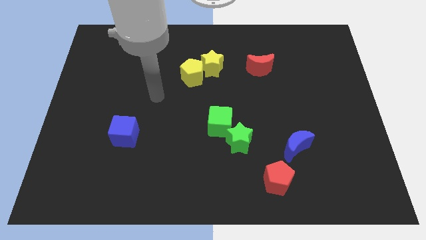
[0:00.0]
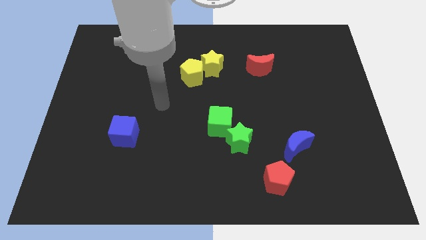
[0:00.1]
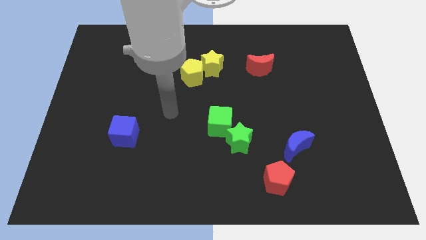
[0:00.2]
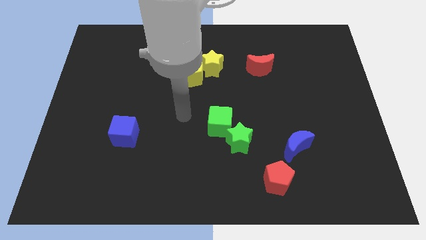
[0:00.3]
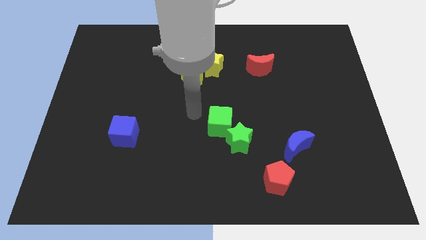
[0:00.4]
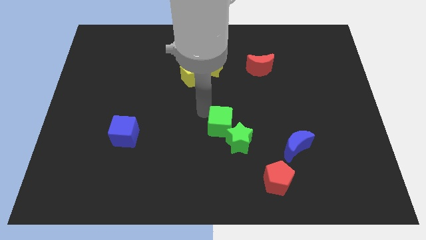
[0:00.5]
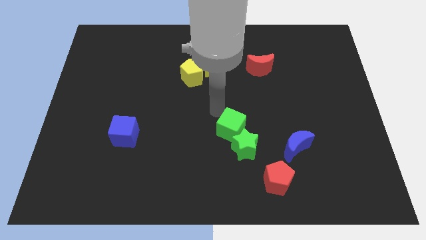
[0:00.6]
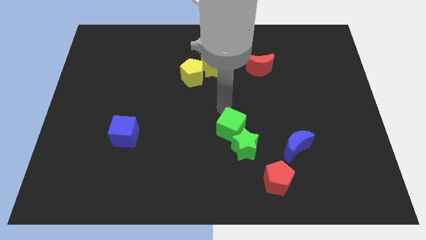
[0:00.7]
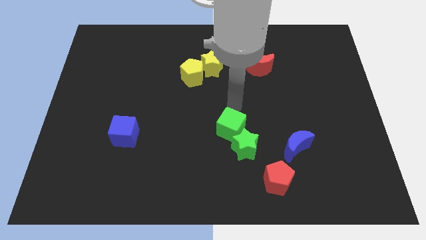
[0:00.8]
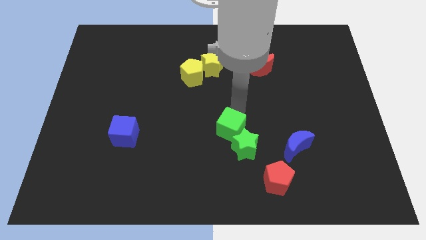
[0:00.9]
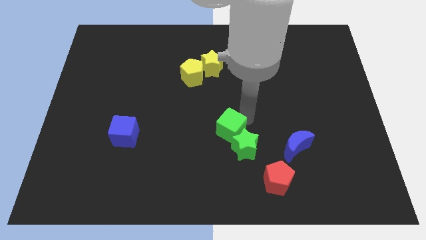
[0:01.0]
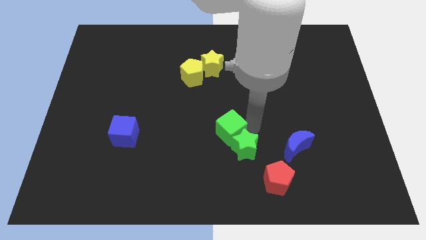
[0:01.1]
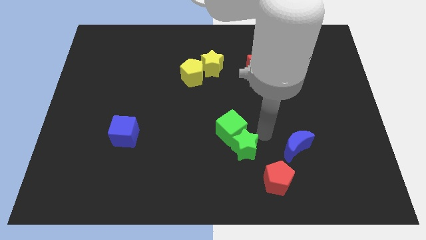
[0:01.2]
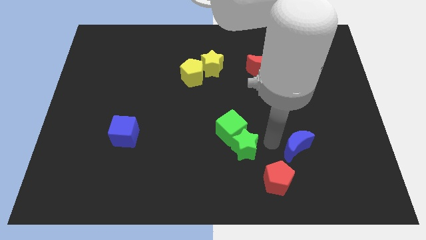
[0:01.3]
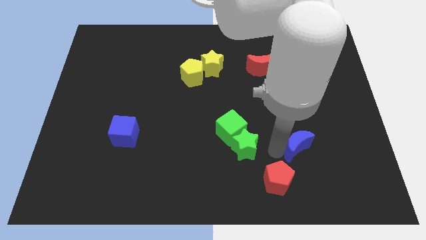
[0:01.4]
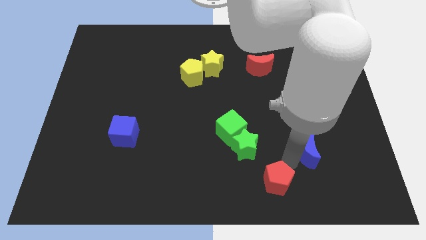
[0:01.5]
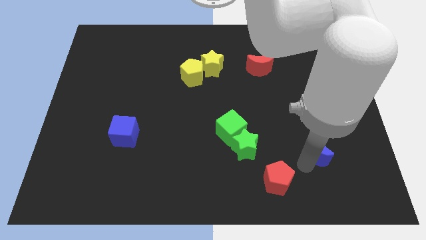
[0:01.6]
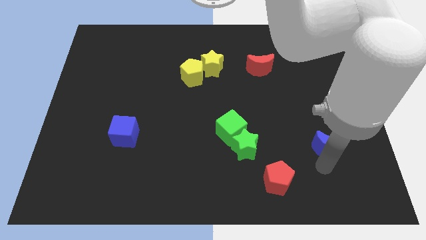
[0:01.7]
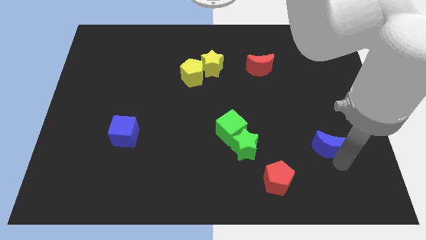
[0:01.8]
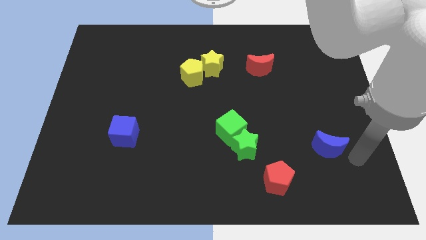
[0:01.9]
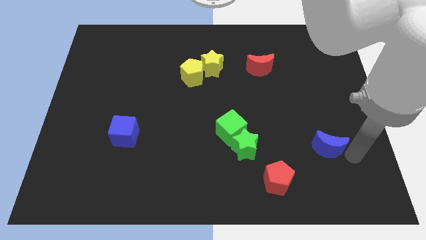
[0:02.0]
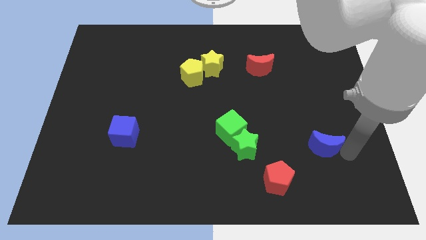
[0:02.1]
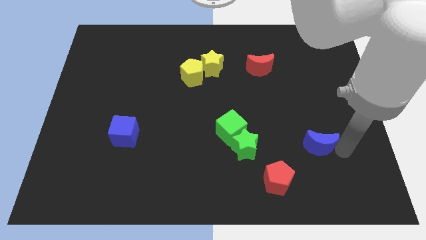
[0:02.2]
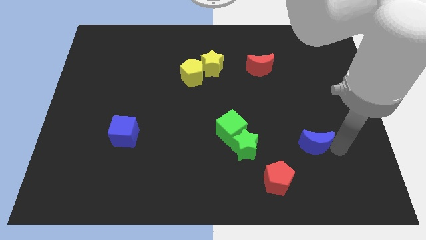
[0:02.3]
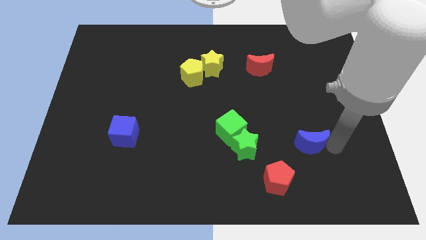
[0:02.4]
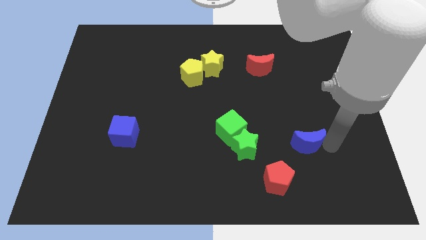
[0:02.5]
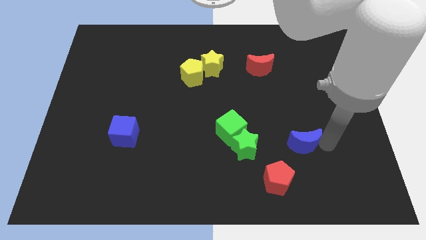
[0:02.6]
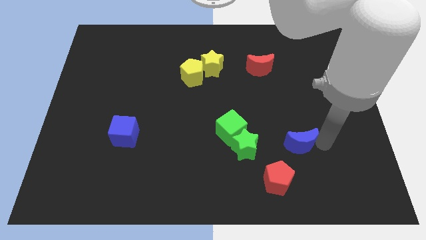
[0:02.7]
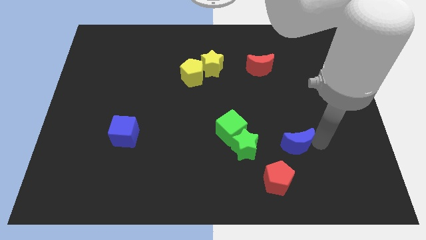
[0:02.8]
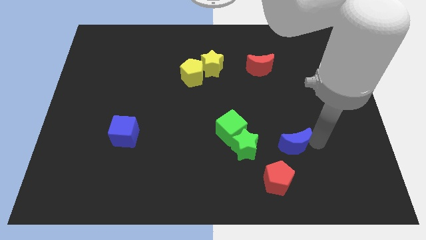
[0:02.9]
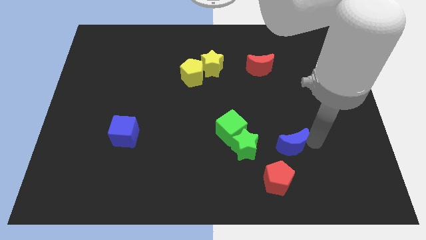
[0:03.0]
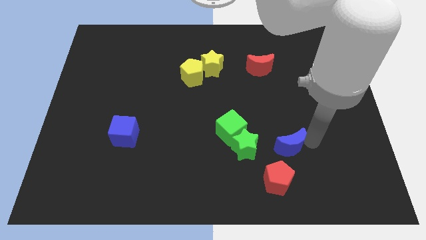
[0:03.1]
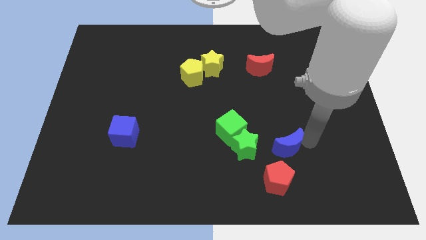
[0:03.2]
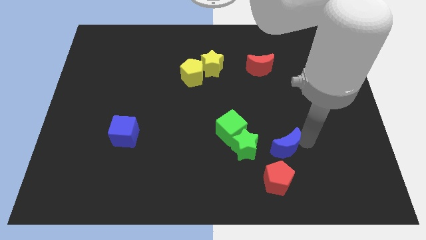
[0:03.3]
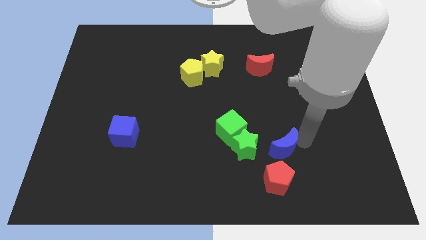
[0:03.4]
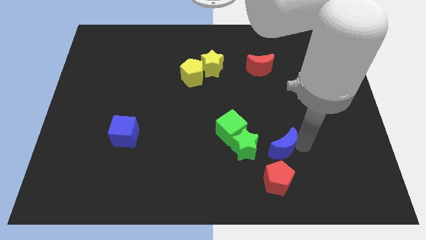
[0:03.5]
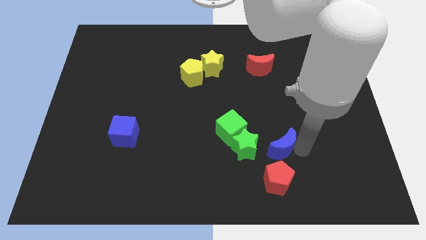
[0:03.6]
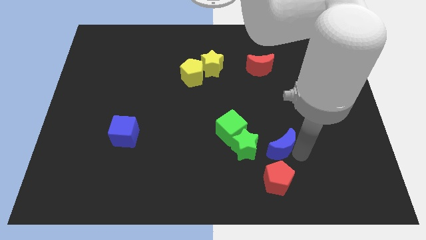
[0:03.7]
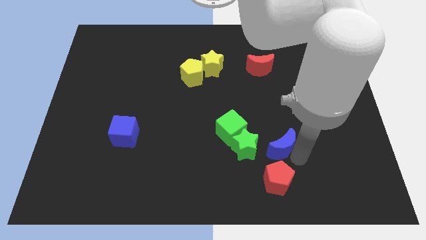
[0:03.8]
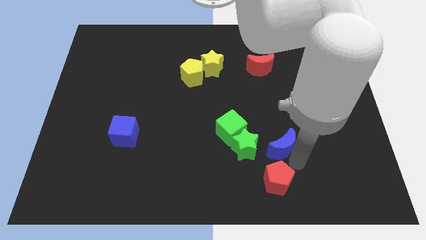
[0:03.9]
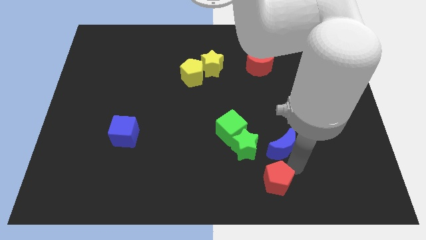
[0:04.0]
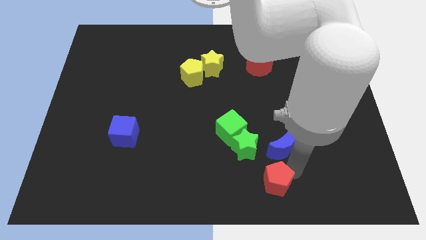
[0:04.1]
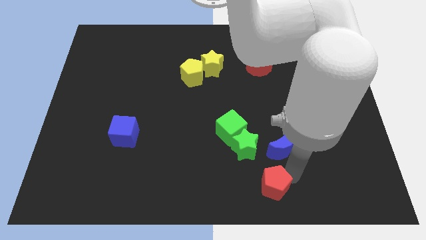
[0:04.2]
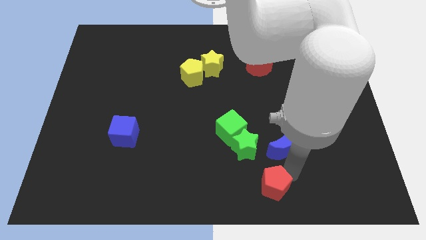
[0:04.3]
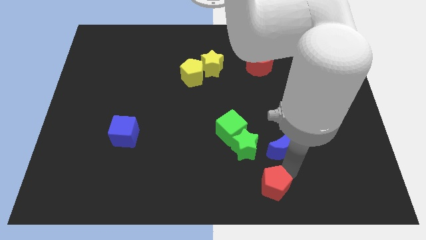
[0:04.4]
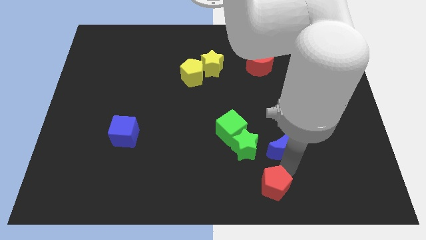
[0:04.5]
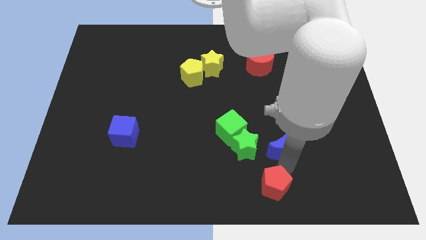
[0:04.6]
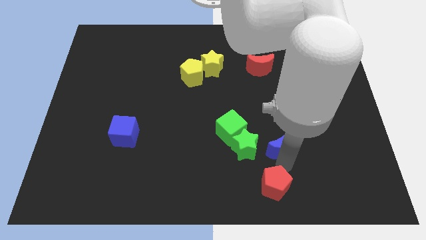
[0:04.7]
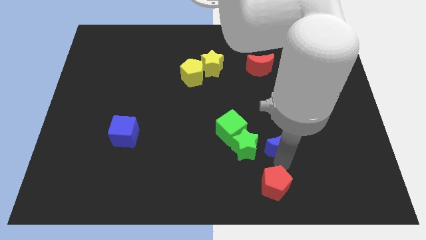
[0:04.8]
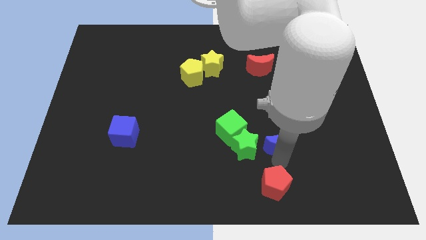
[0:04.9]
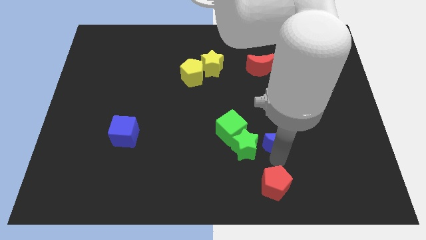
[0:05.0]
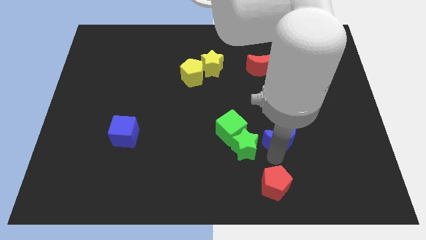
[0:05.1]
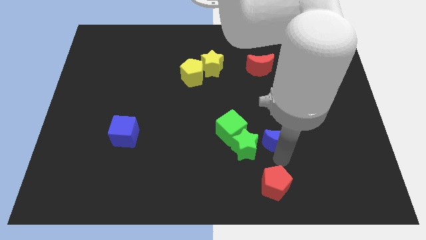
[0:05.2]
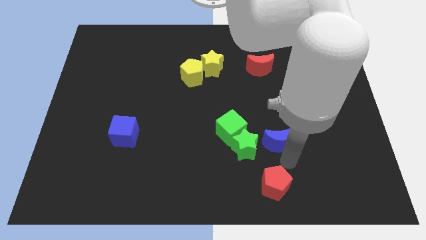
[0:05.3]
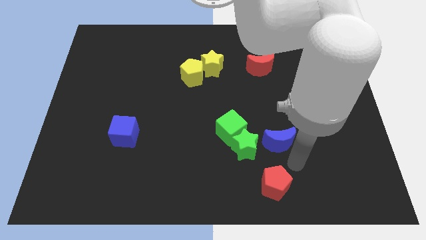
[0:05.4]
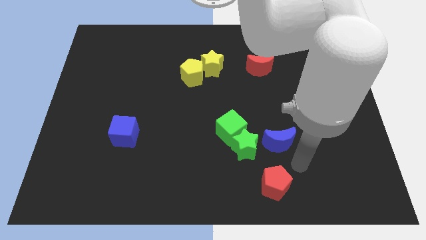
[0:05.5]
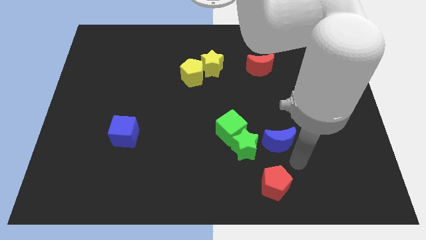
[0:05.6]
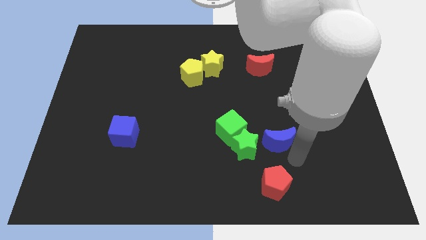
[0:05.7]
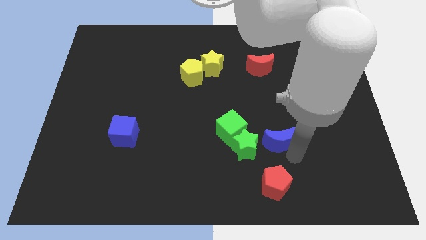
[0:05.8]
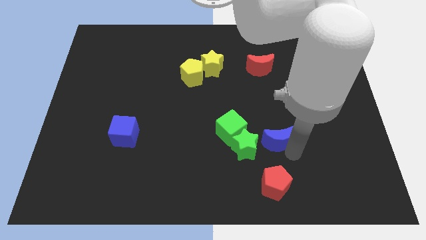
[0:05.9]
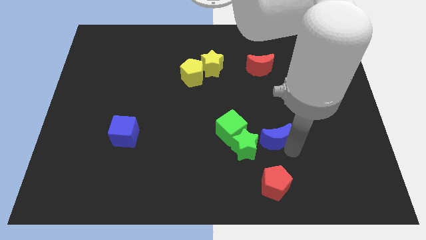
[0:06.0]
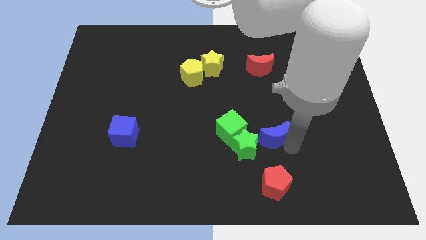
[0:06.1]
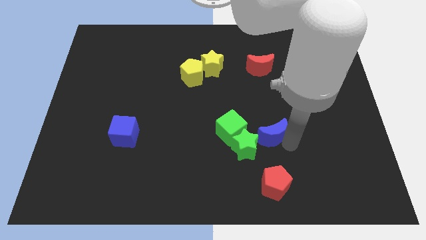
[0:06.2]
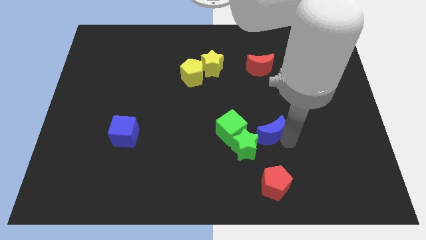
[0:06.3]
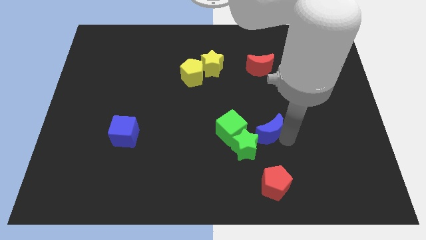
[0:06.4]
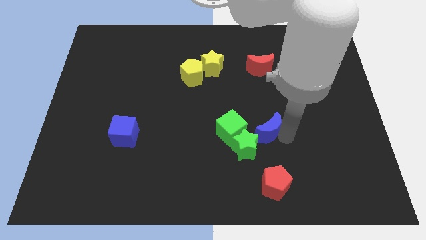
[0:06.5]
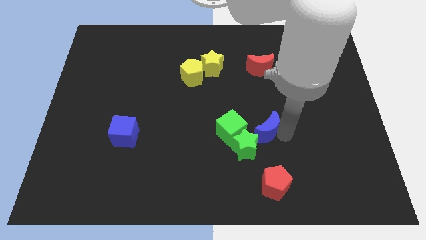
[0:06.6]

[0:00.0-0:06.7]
slightly move the blue moon upwards and then to the left

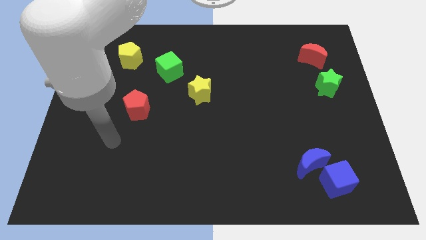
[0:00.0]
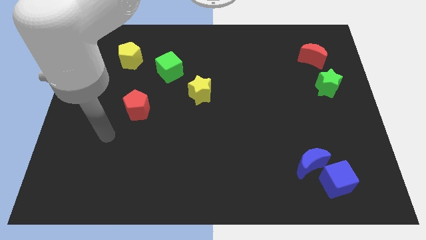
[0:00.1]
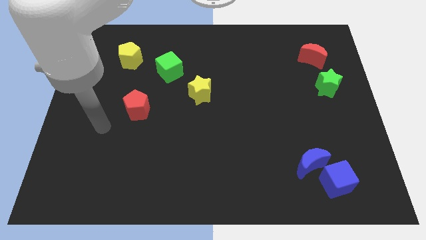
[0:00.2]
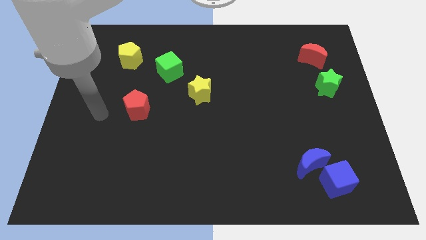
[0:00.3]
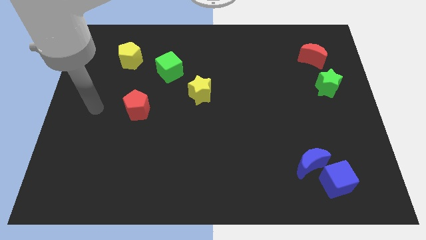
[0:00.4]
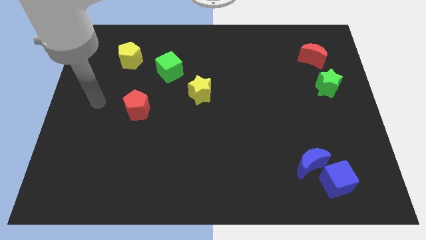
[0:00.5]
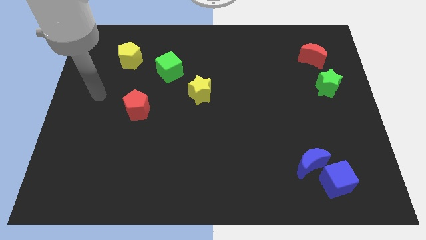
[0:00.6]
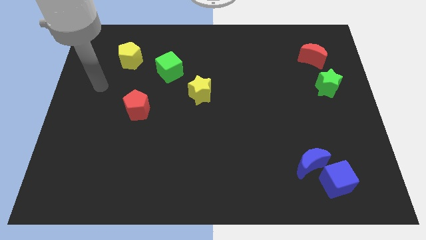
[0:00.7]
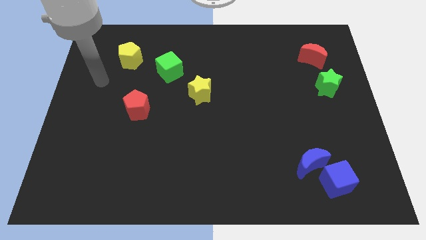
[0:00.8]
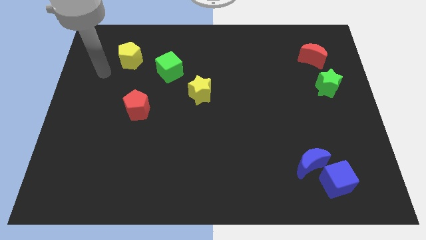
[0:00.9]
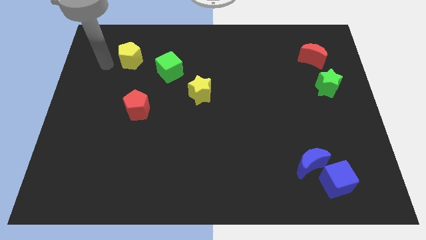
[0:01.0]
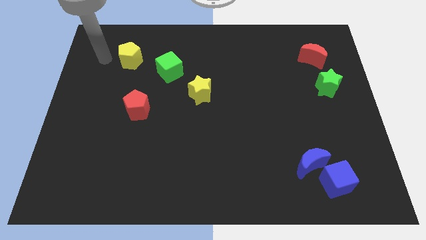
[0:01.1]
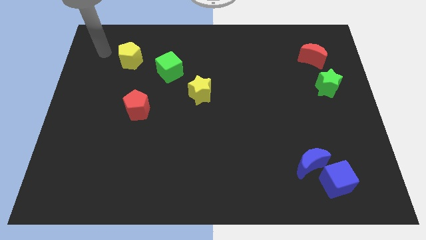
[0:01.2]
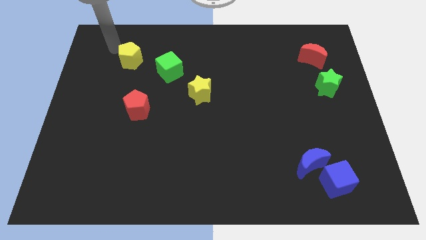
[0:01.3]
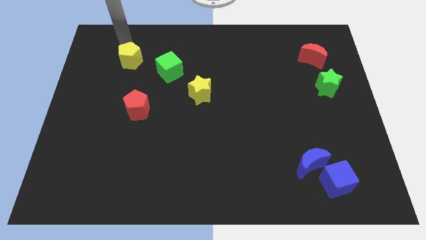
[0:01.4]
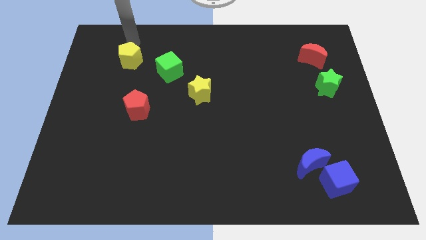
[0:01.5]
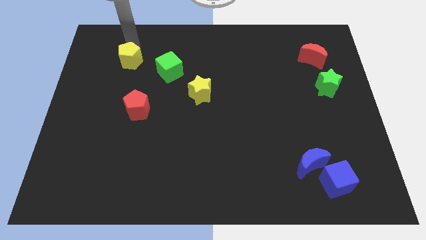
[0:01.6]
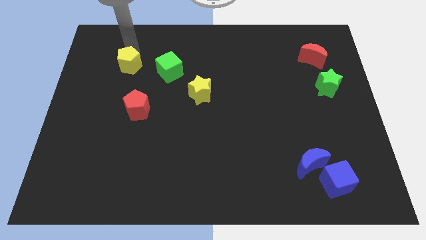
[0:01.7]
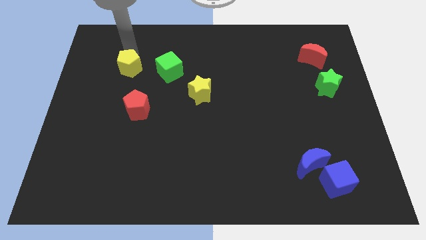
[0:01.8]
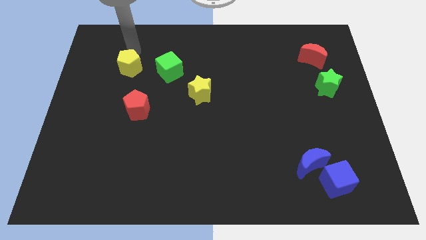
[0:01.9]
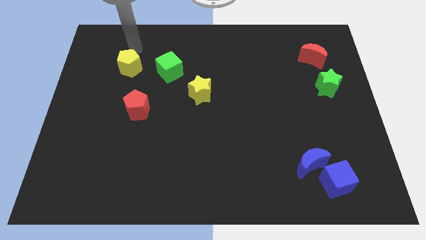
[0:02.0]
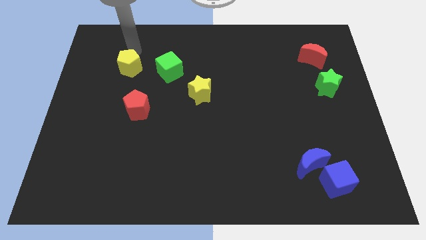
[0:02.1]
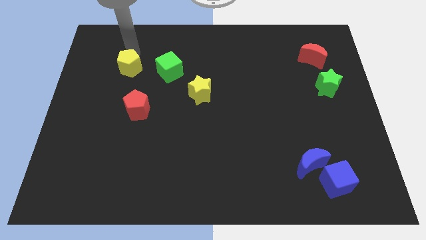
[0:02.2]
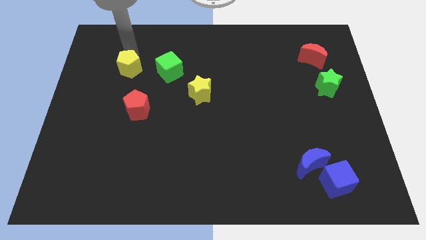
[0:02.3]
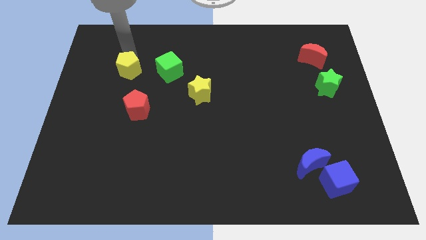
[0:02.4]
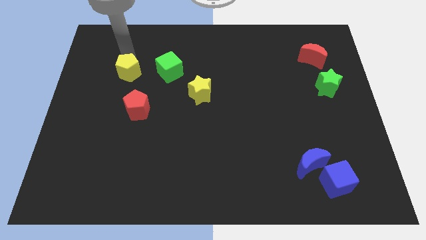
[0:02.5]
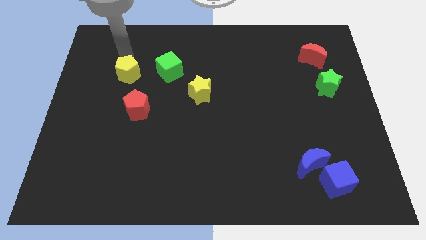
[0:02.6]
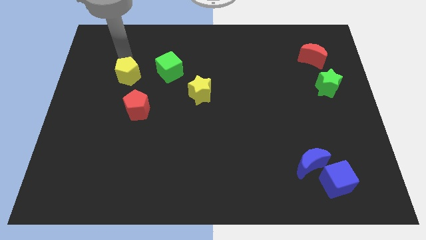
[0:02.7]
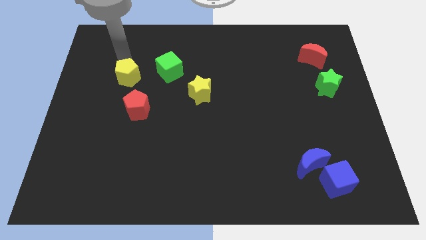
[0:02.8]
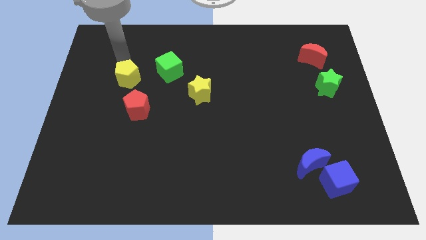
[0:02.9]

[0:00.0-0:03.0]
push the yellow pentagon a bit downwards
